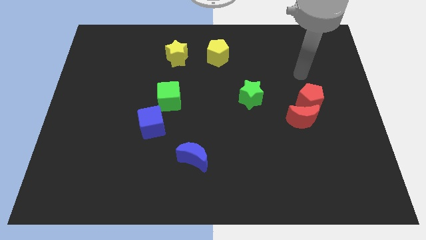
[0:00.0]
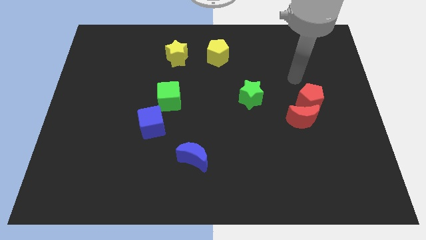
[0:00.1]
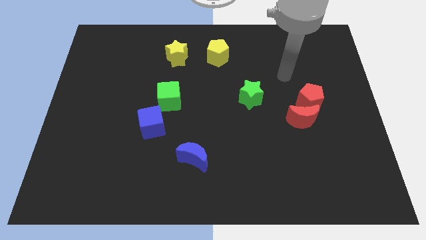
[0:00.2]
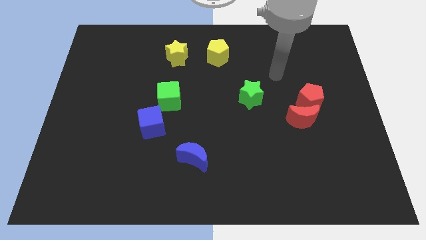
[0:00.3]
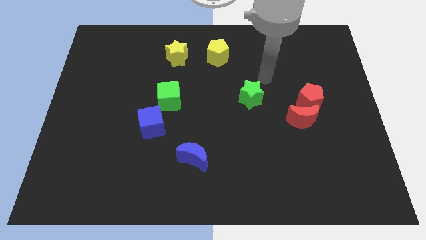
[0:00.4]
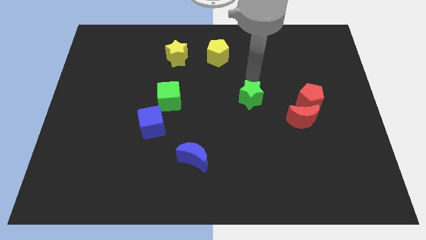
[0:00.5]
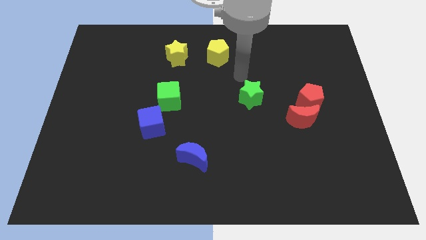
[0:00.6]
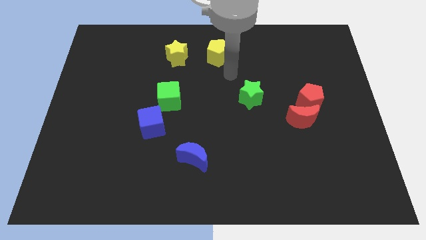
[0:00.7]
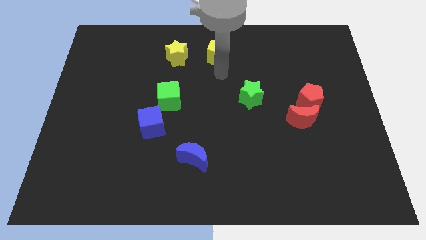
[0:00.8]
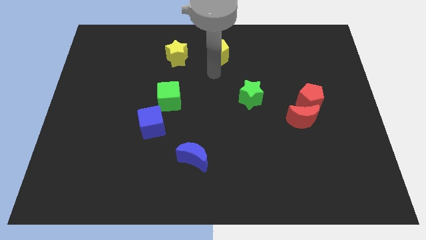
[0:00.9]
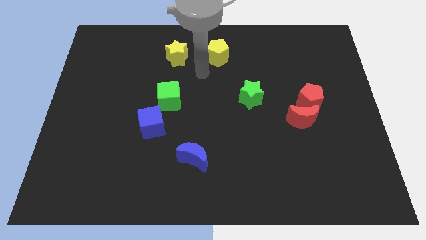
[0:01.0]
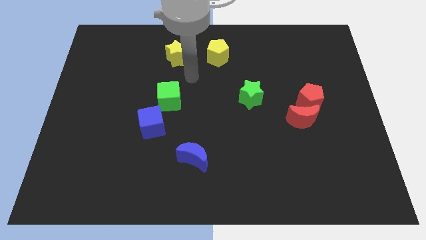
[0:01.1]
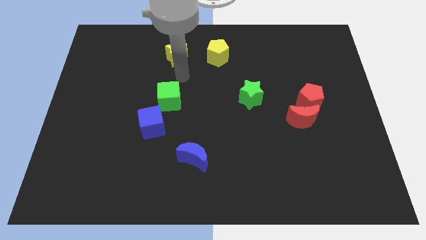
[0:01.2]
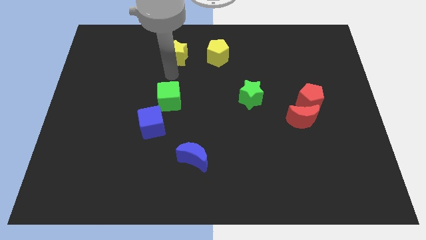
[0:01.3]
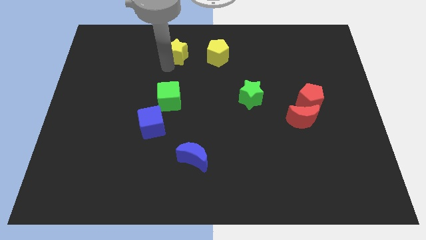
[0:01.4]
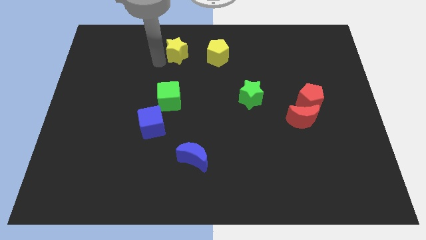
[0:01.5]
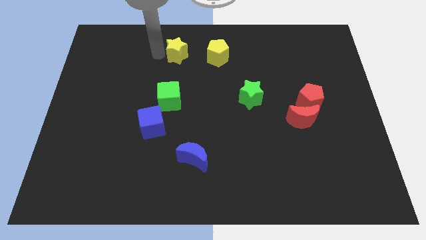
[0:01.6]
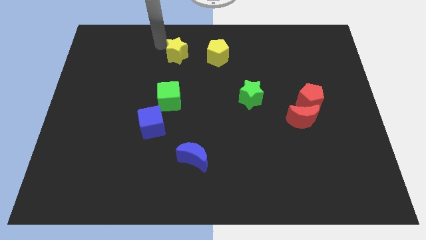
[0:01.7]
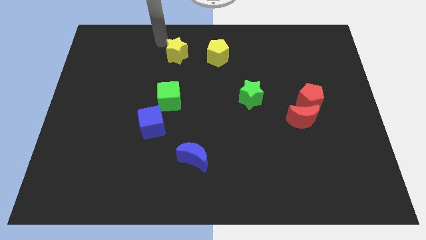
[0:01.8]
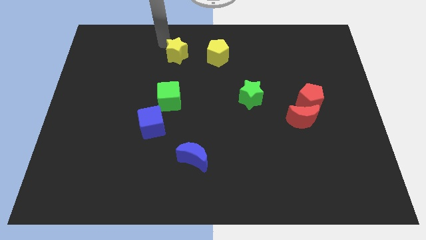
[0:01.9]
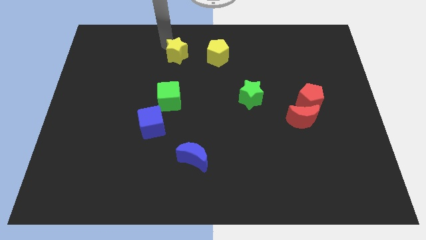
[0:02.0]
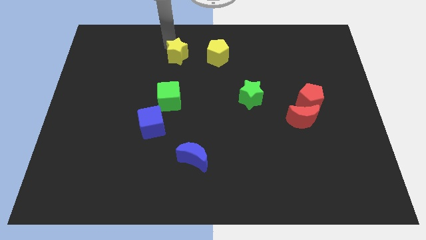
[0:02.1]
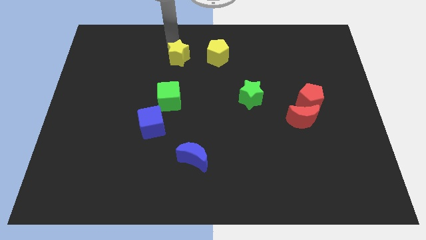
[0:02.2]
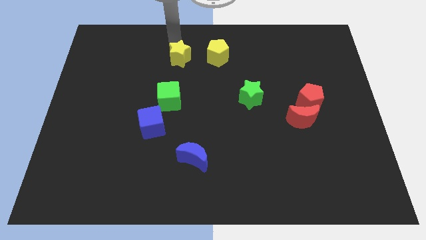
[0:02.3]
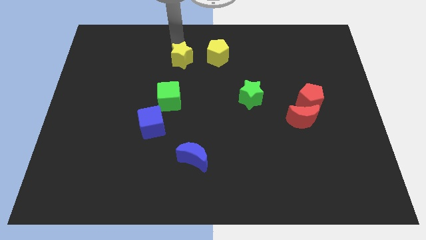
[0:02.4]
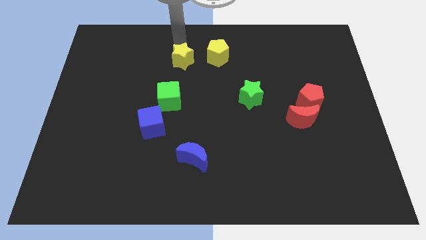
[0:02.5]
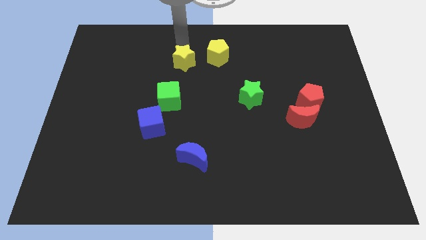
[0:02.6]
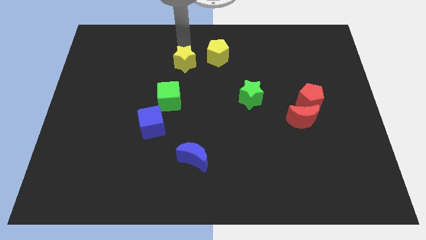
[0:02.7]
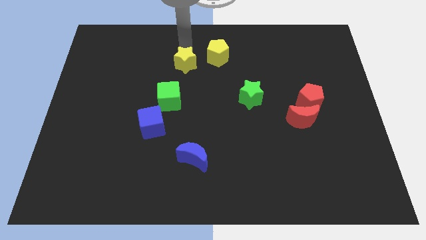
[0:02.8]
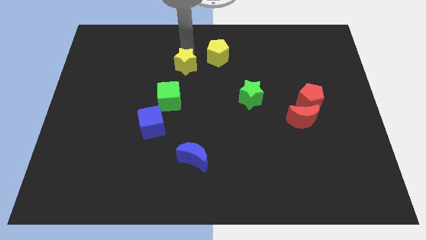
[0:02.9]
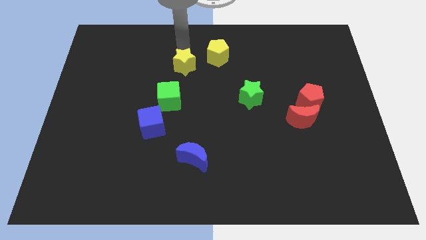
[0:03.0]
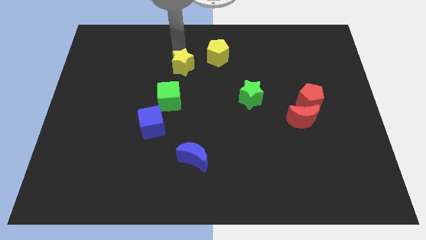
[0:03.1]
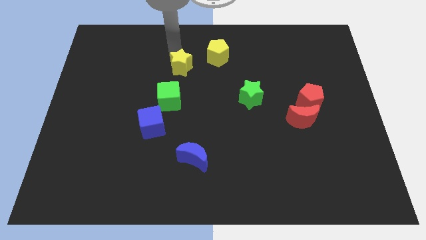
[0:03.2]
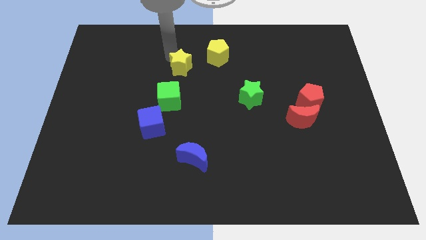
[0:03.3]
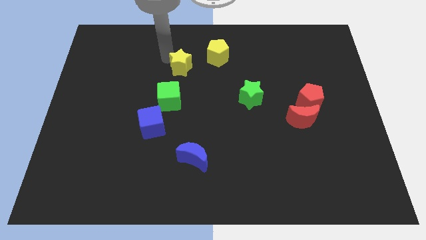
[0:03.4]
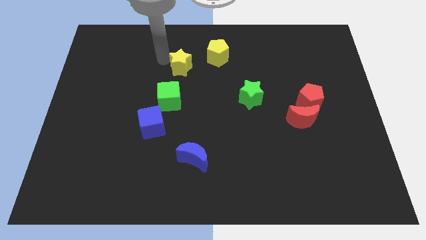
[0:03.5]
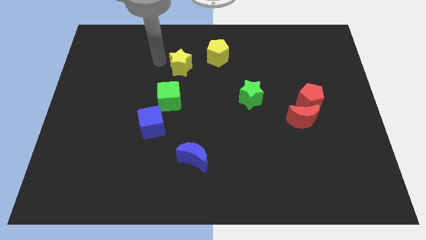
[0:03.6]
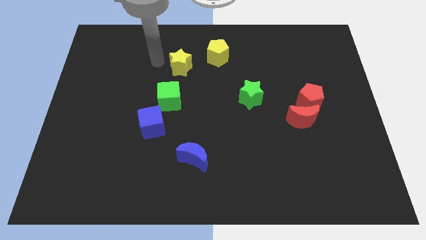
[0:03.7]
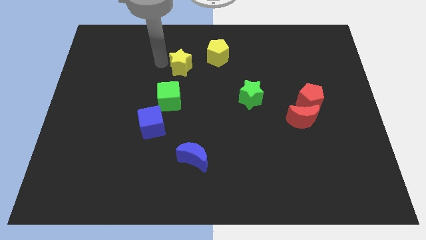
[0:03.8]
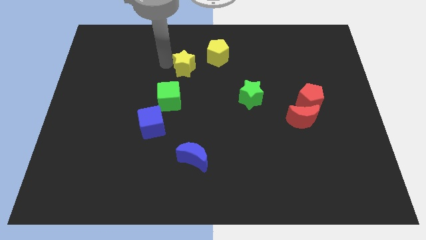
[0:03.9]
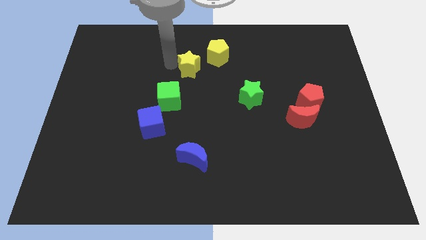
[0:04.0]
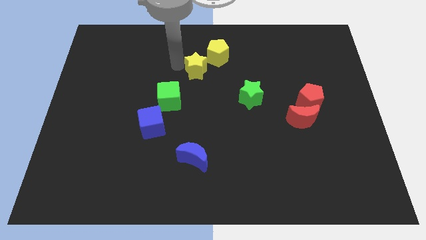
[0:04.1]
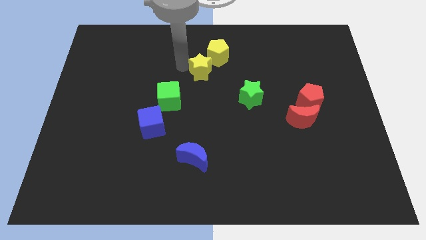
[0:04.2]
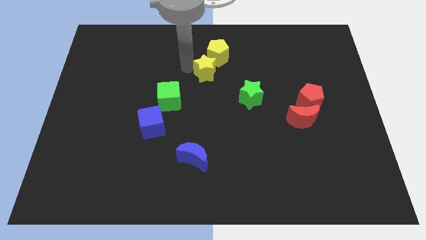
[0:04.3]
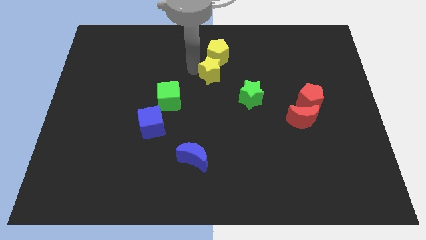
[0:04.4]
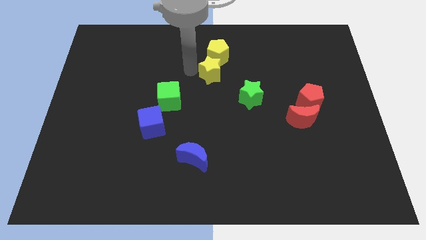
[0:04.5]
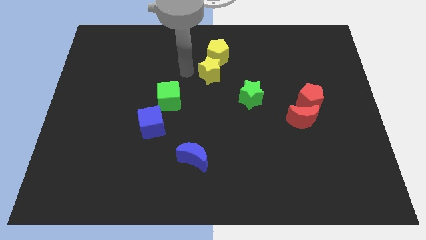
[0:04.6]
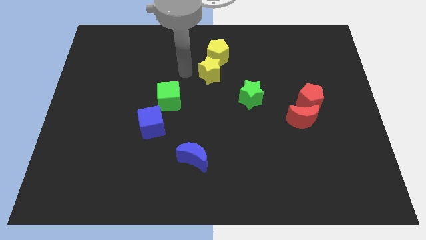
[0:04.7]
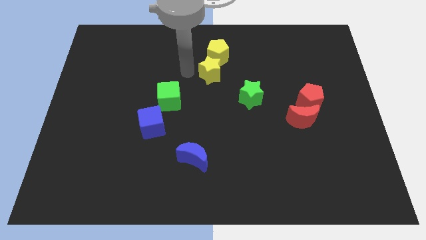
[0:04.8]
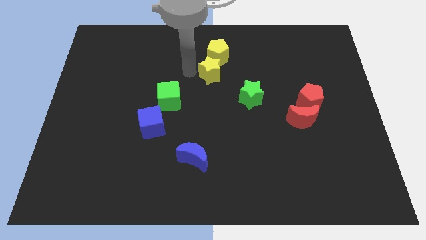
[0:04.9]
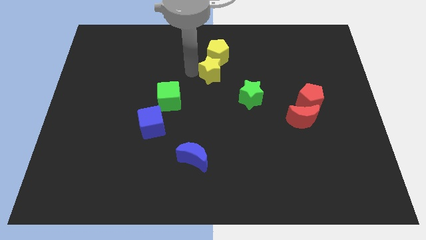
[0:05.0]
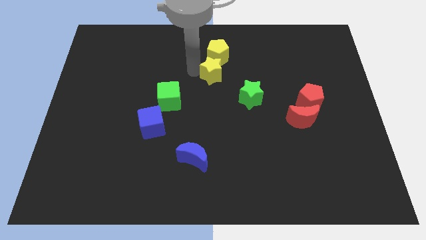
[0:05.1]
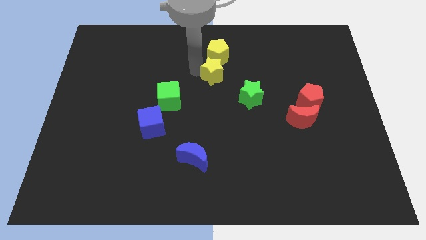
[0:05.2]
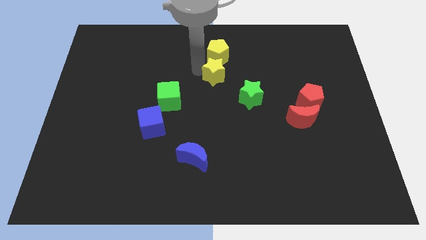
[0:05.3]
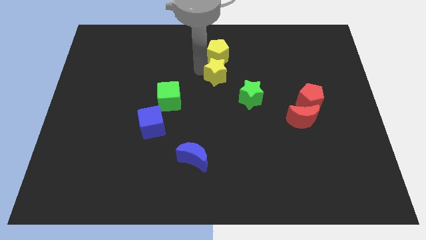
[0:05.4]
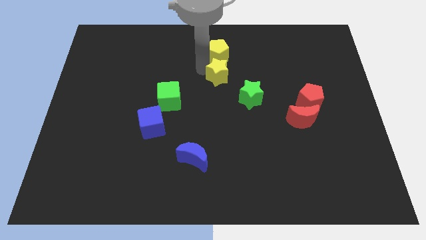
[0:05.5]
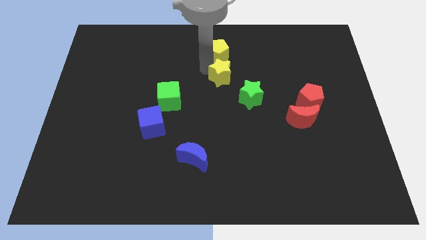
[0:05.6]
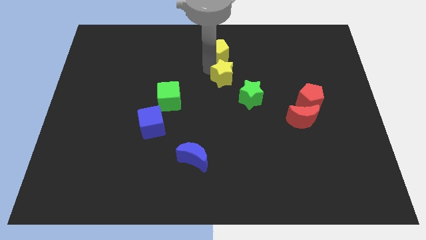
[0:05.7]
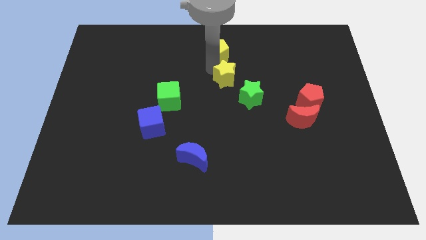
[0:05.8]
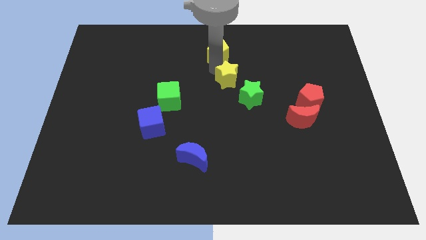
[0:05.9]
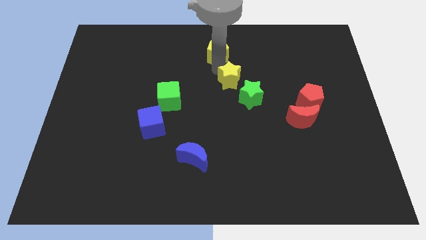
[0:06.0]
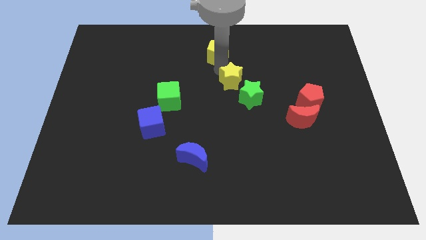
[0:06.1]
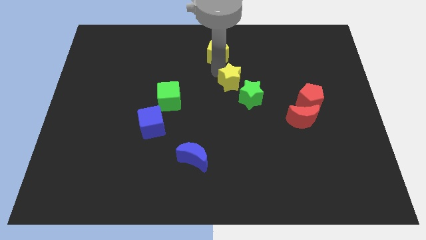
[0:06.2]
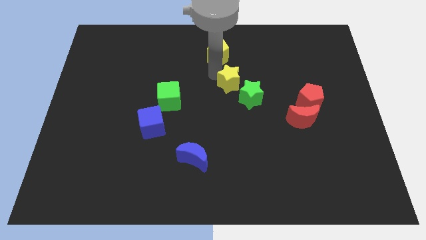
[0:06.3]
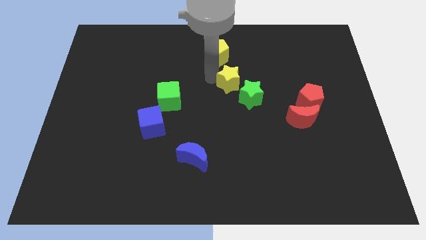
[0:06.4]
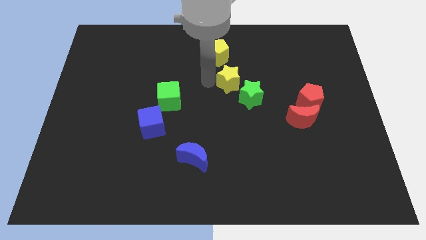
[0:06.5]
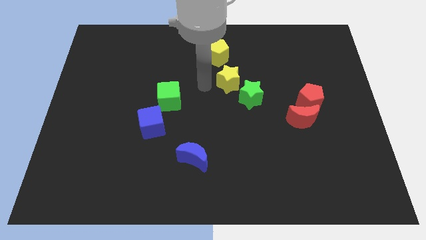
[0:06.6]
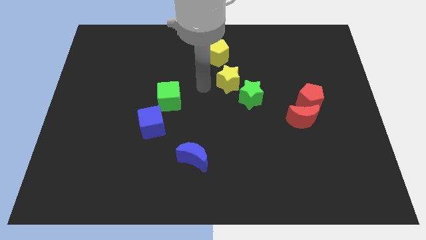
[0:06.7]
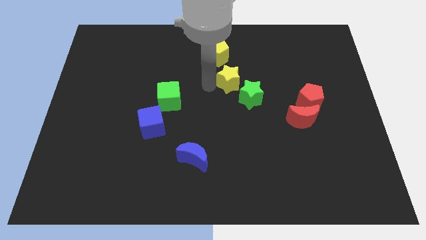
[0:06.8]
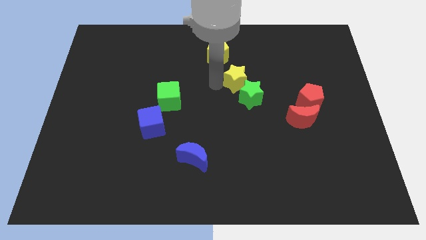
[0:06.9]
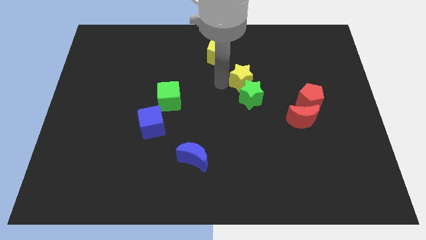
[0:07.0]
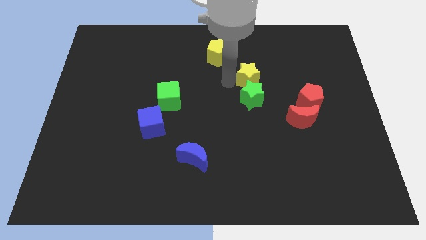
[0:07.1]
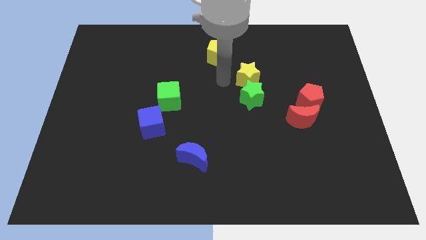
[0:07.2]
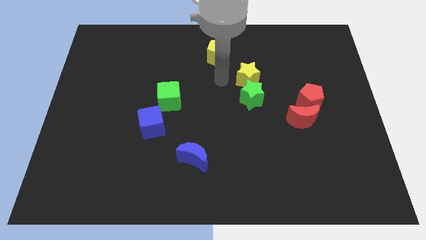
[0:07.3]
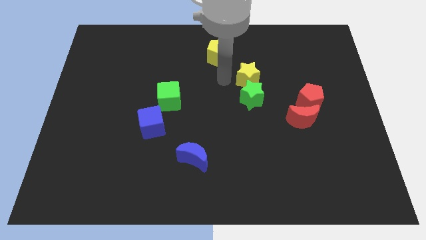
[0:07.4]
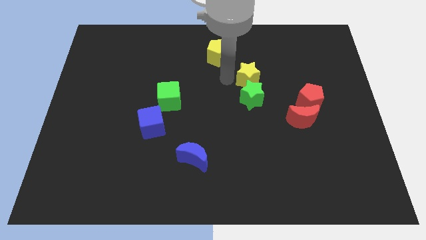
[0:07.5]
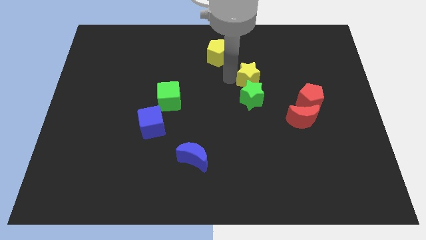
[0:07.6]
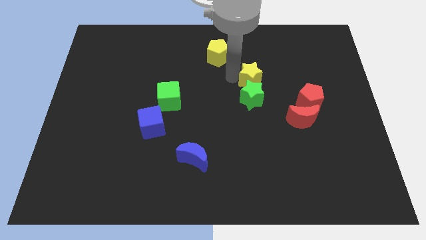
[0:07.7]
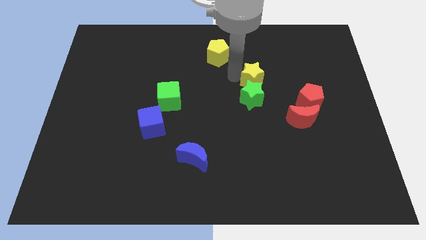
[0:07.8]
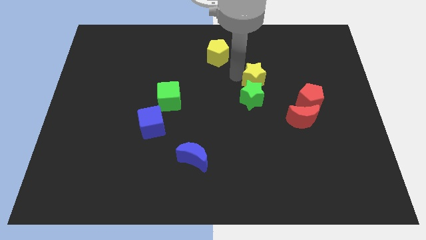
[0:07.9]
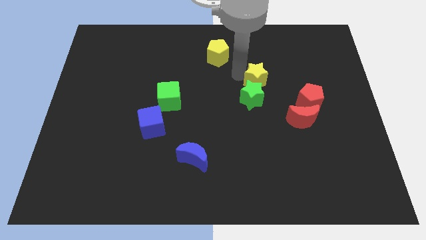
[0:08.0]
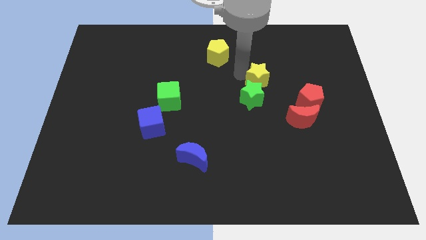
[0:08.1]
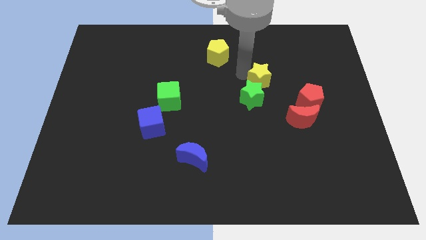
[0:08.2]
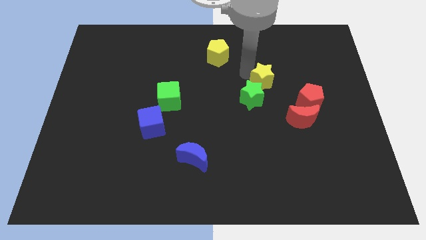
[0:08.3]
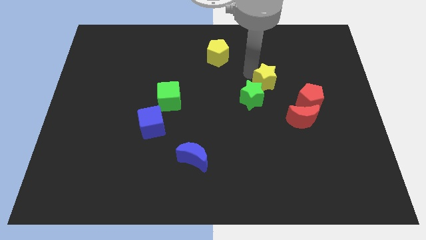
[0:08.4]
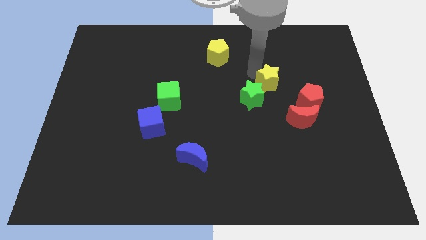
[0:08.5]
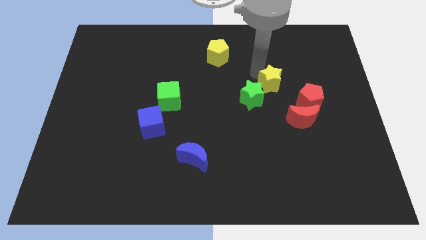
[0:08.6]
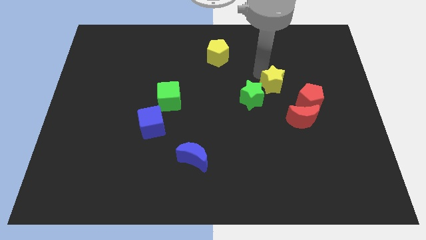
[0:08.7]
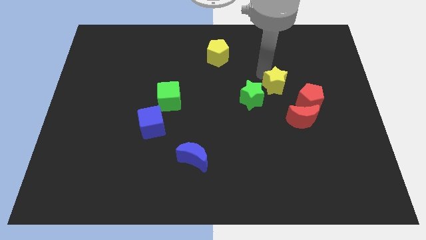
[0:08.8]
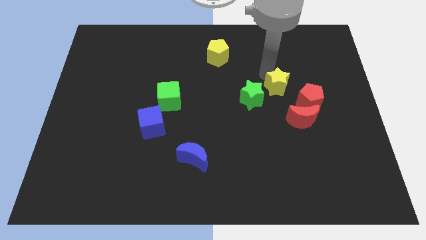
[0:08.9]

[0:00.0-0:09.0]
move the yellow star above the red moon
